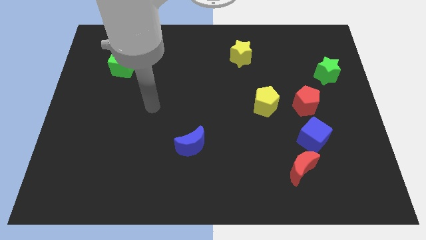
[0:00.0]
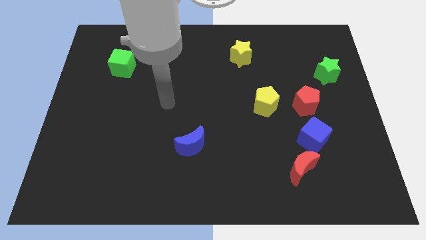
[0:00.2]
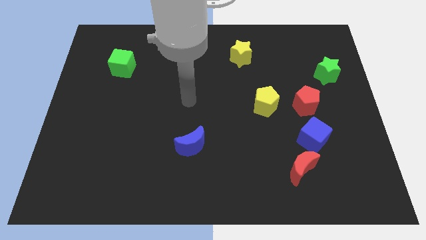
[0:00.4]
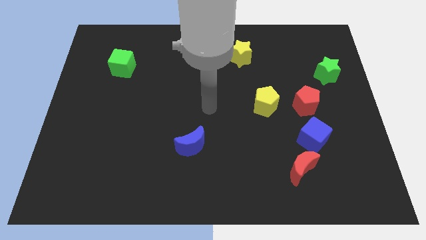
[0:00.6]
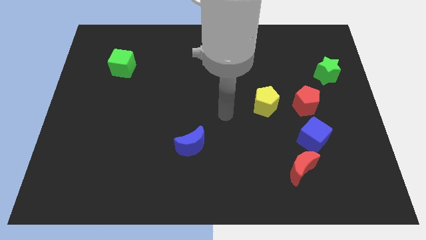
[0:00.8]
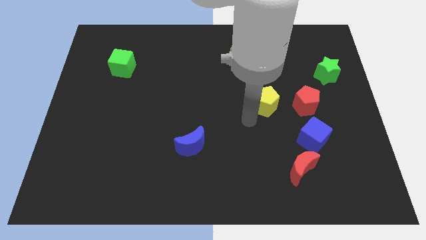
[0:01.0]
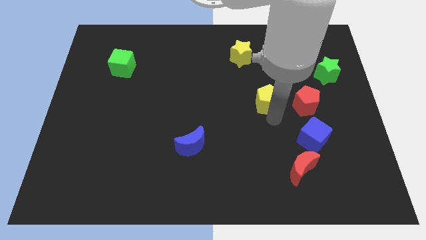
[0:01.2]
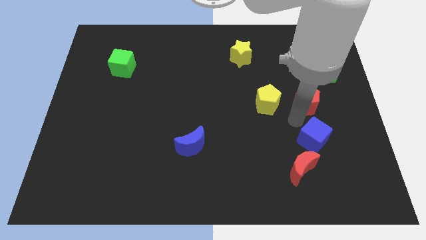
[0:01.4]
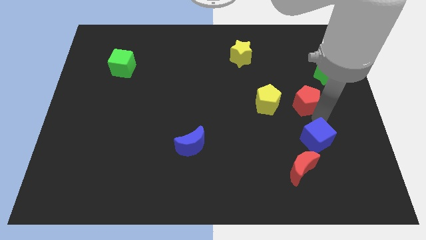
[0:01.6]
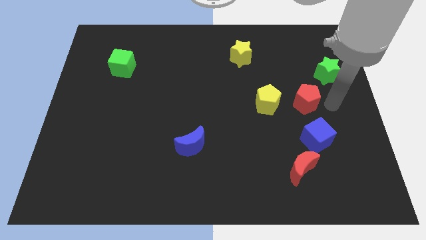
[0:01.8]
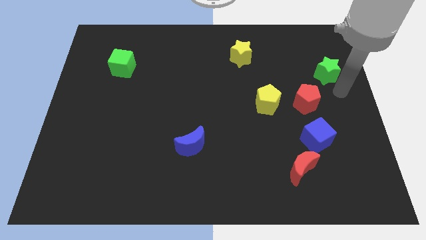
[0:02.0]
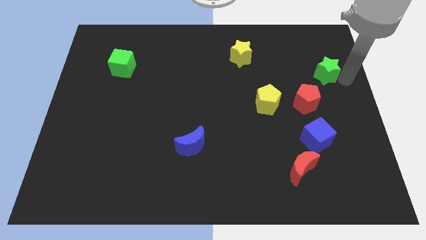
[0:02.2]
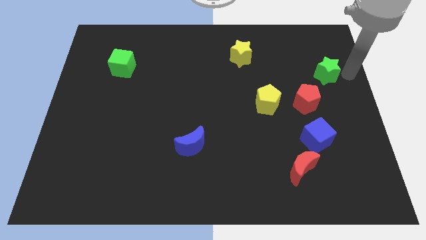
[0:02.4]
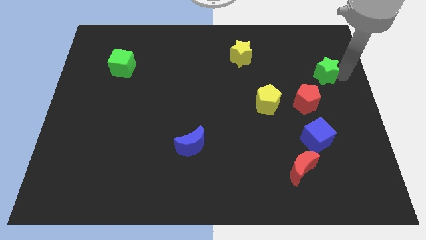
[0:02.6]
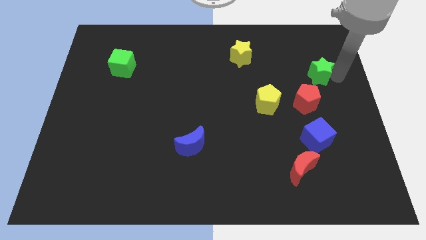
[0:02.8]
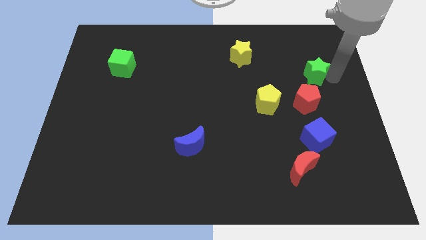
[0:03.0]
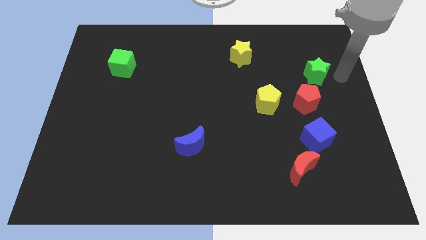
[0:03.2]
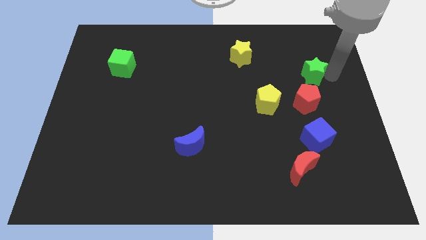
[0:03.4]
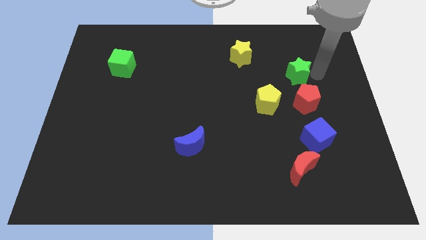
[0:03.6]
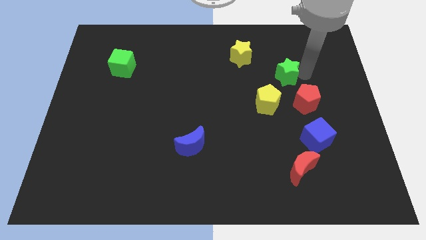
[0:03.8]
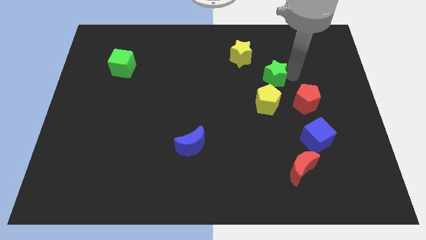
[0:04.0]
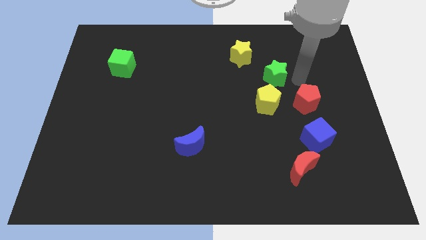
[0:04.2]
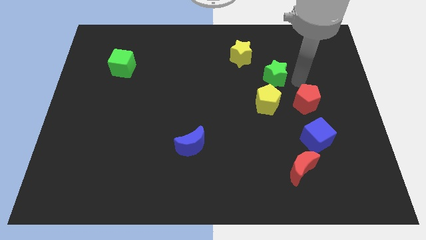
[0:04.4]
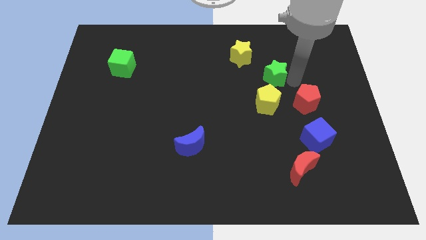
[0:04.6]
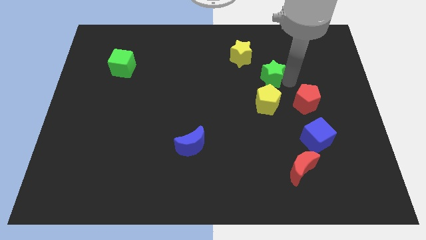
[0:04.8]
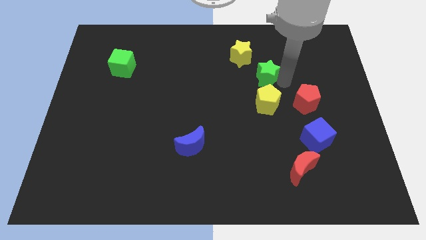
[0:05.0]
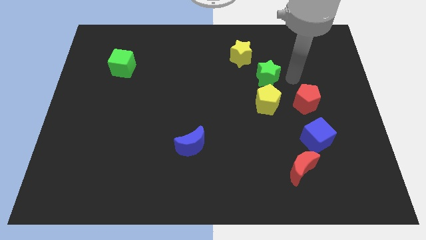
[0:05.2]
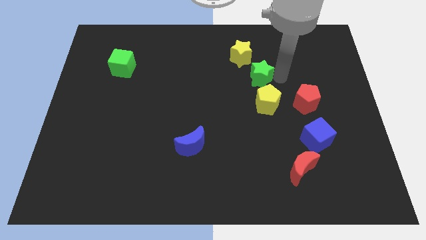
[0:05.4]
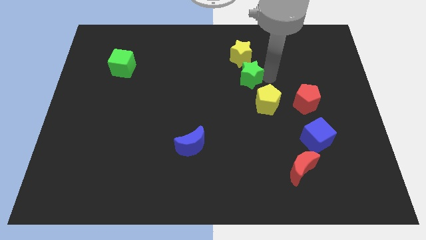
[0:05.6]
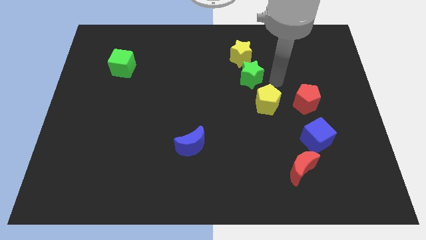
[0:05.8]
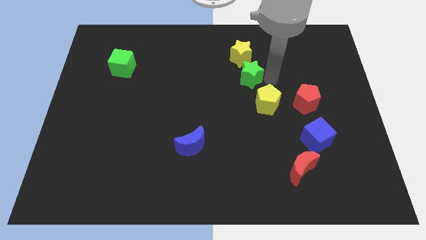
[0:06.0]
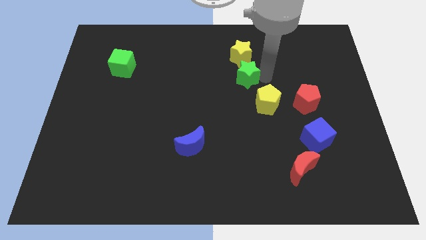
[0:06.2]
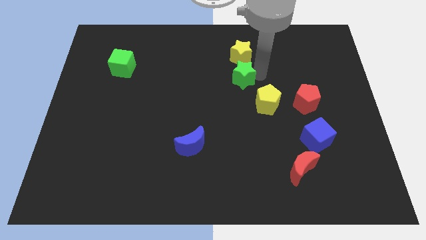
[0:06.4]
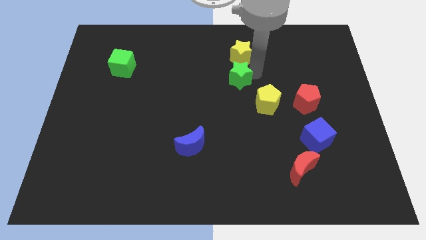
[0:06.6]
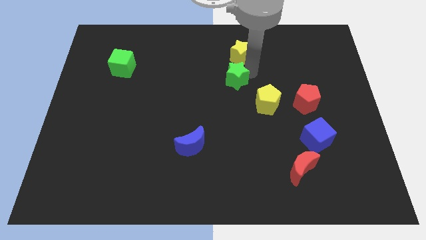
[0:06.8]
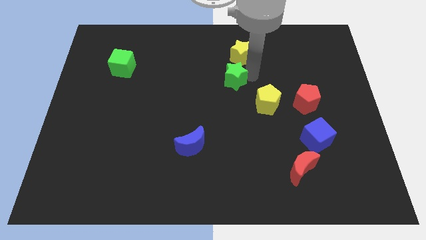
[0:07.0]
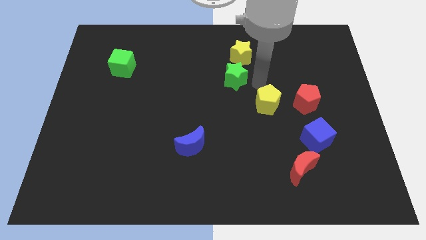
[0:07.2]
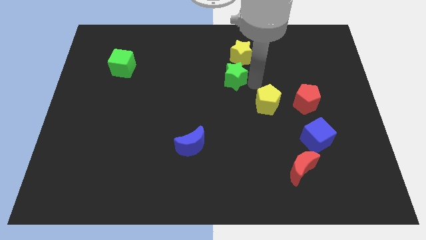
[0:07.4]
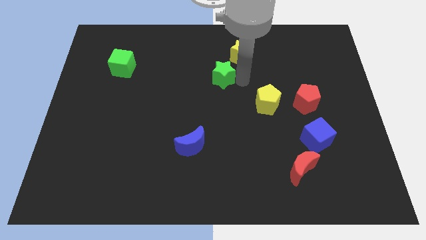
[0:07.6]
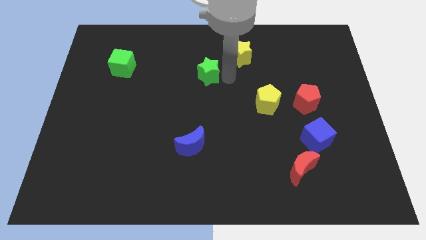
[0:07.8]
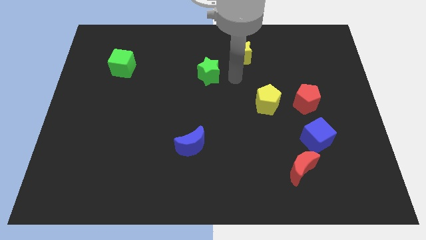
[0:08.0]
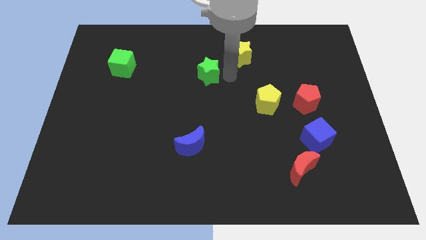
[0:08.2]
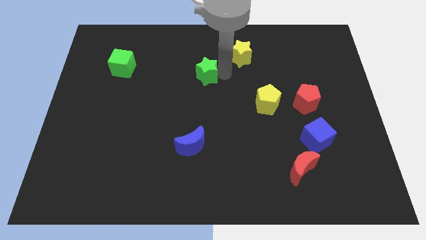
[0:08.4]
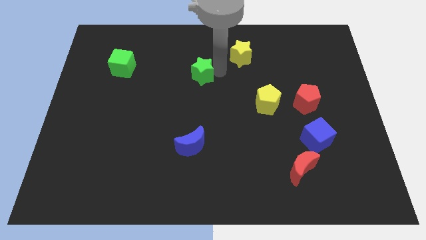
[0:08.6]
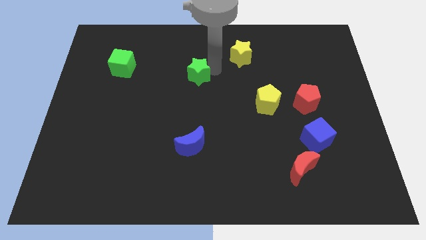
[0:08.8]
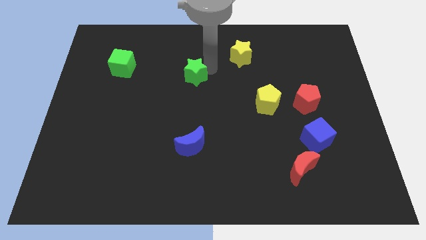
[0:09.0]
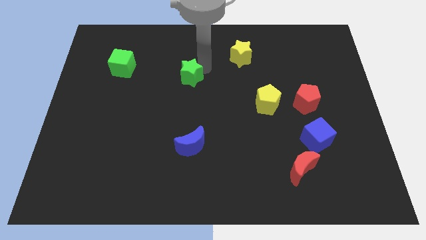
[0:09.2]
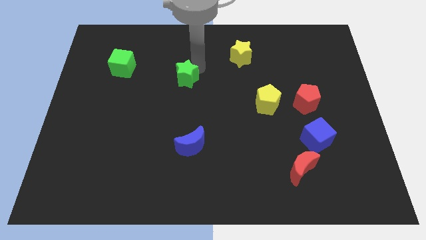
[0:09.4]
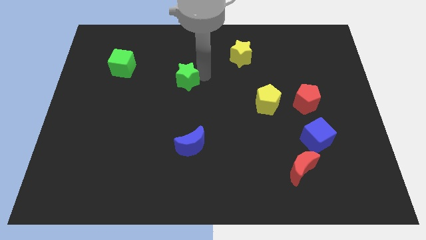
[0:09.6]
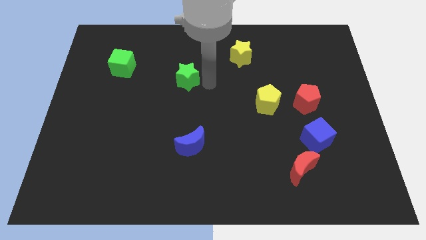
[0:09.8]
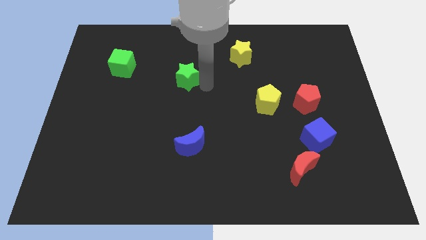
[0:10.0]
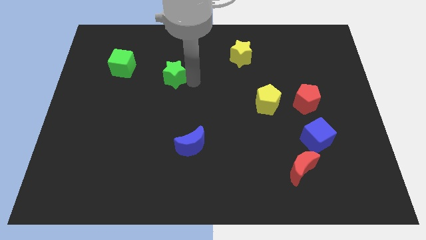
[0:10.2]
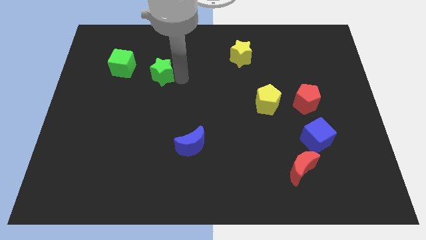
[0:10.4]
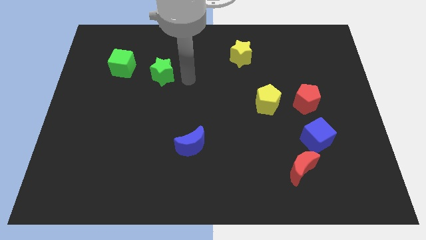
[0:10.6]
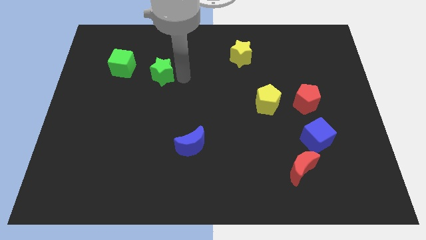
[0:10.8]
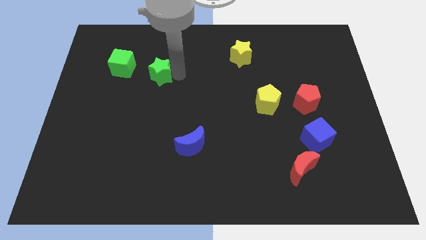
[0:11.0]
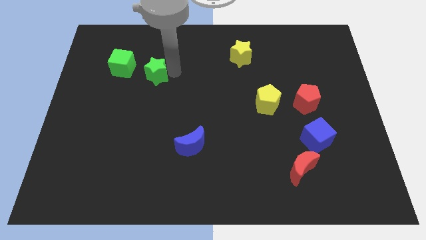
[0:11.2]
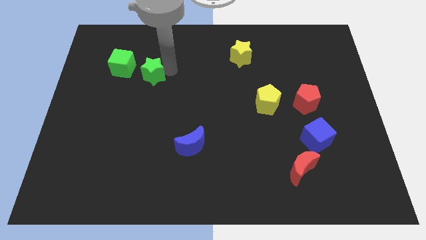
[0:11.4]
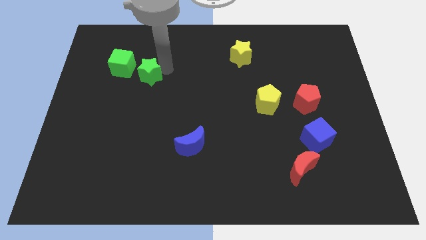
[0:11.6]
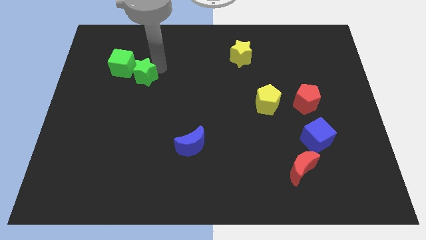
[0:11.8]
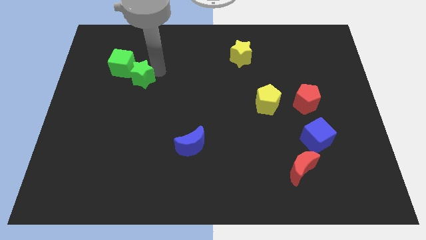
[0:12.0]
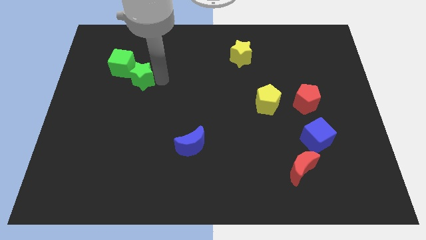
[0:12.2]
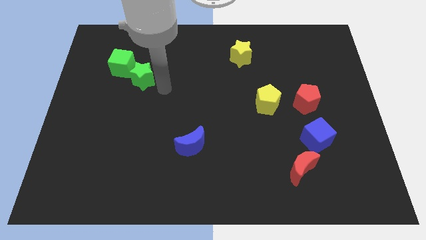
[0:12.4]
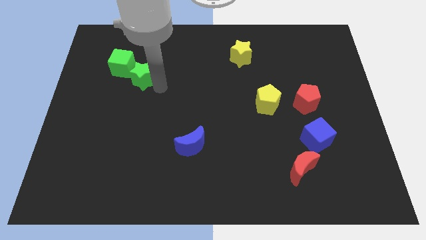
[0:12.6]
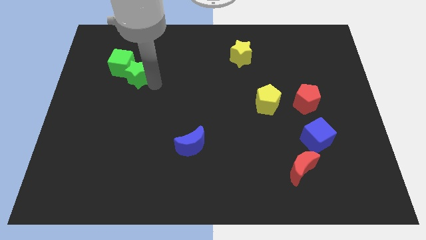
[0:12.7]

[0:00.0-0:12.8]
move the green star to the green cube

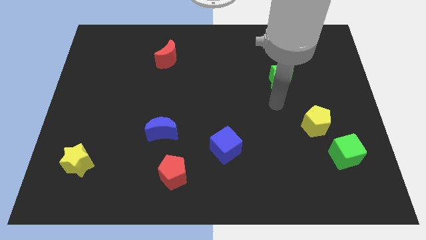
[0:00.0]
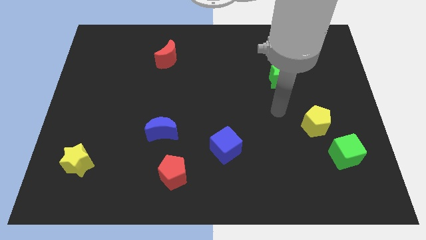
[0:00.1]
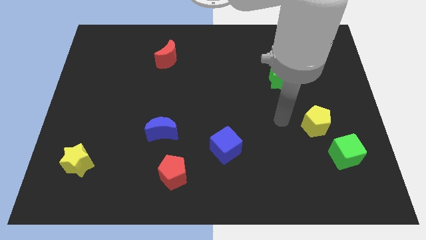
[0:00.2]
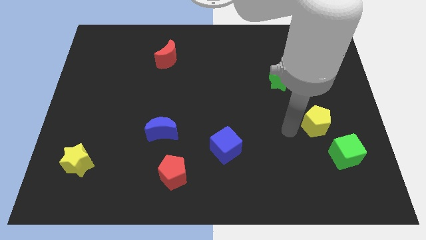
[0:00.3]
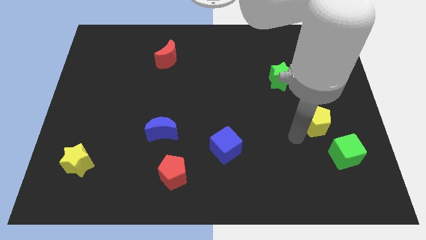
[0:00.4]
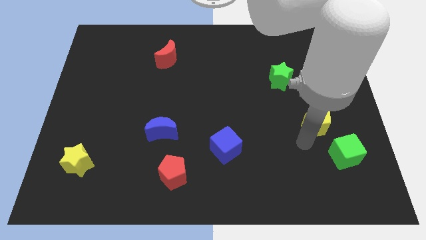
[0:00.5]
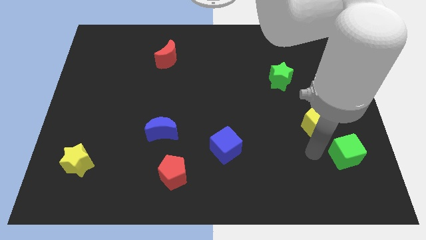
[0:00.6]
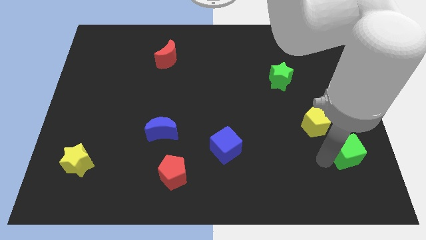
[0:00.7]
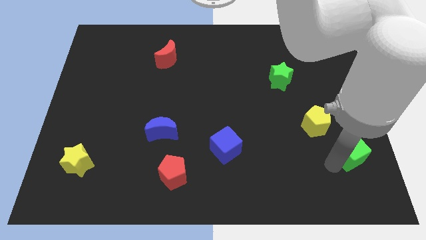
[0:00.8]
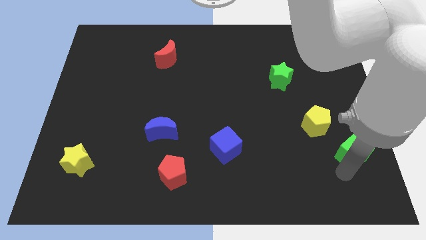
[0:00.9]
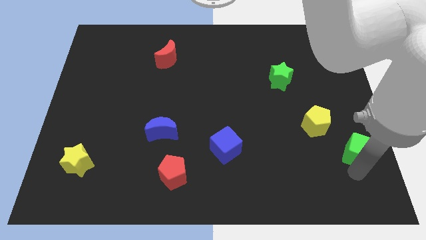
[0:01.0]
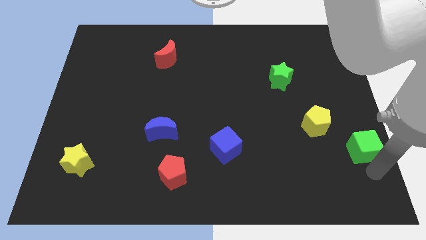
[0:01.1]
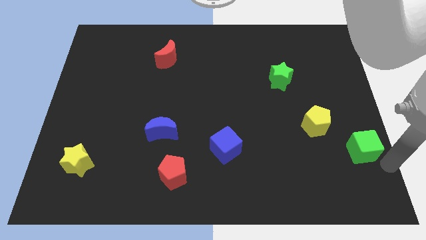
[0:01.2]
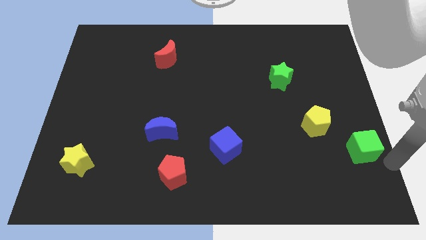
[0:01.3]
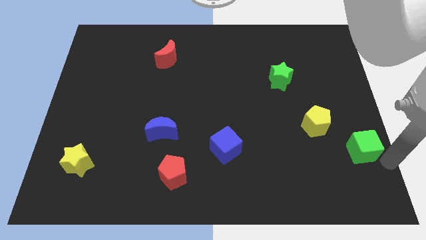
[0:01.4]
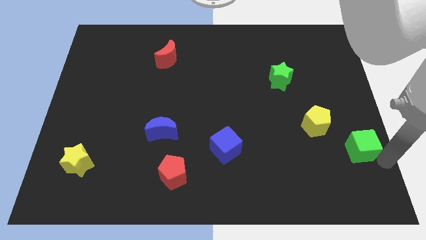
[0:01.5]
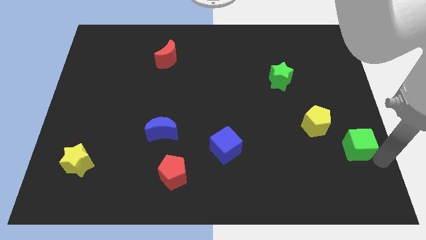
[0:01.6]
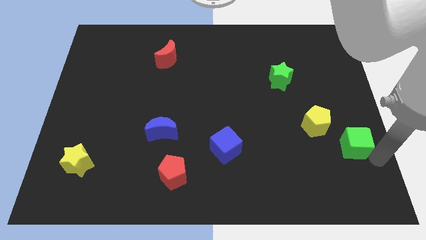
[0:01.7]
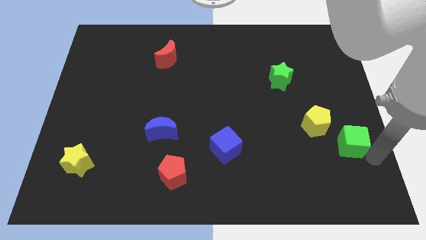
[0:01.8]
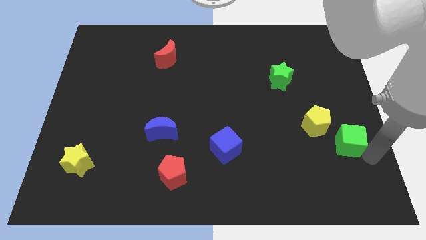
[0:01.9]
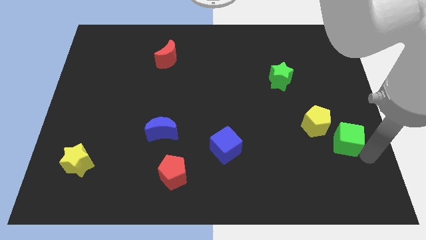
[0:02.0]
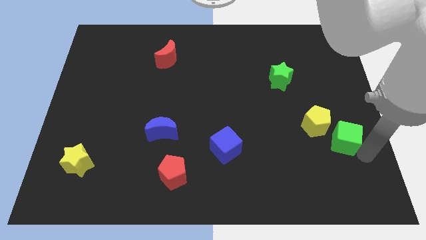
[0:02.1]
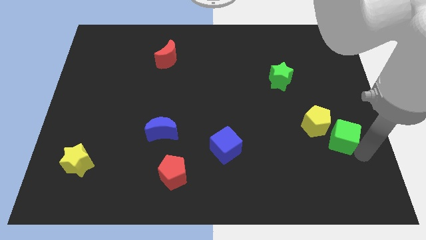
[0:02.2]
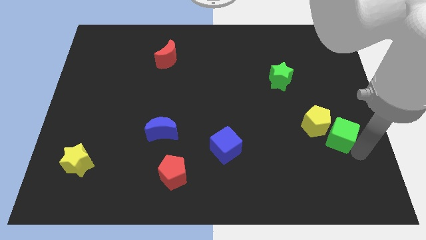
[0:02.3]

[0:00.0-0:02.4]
slide the green cube to the yellow pentagon
